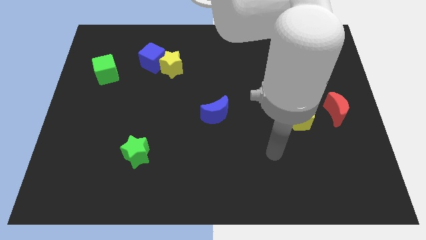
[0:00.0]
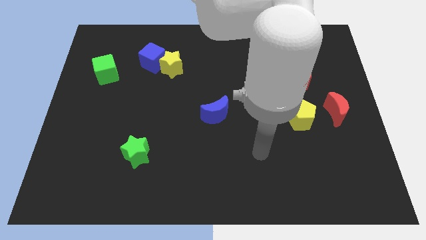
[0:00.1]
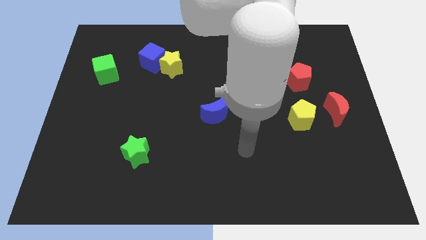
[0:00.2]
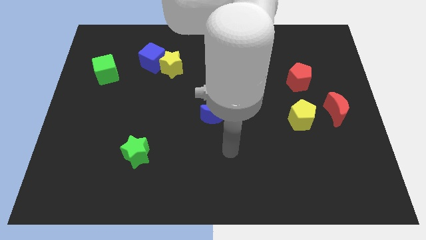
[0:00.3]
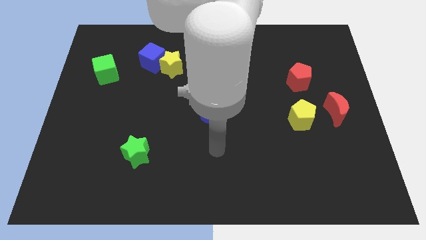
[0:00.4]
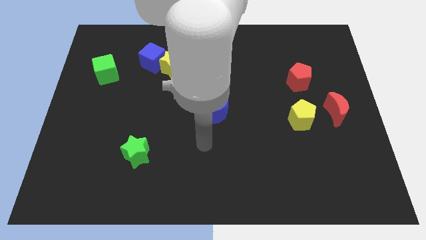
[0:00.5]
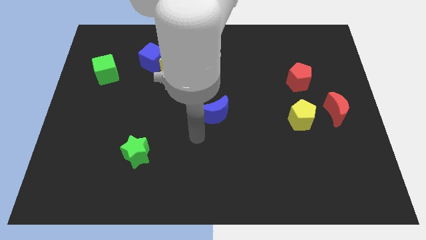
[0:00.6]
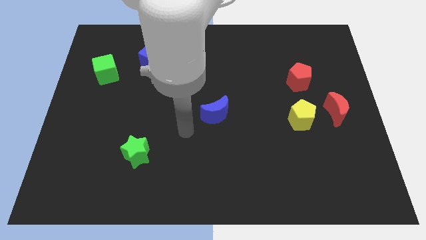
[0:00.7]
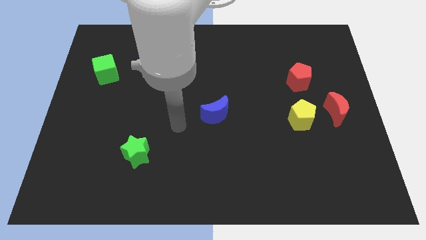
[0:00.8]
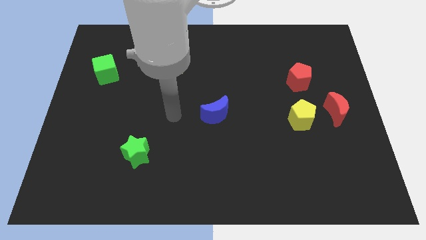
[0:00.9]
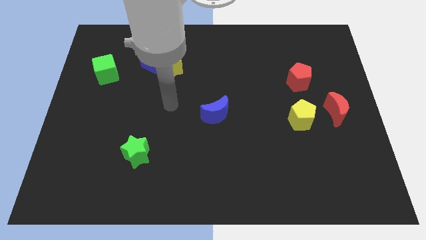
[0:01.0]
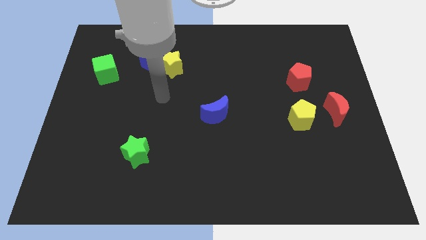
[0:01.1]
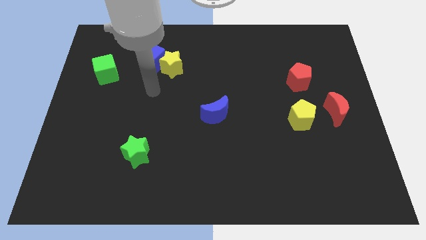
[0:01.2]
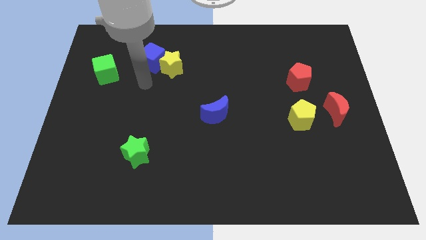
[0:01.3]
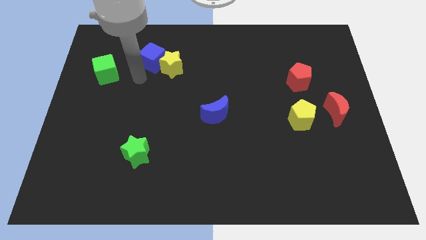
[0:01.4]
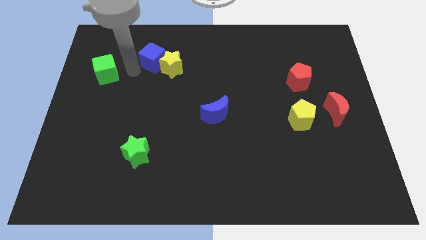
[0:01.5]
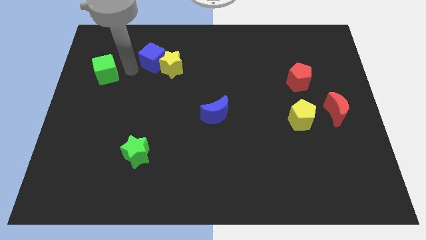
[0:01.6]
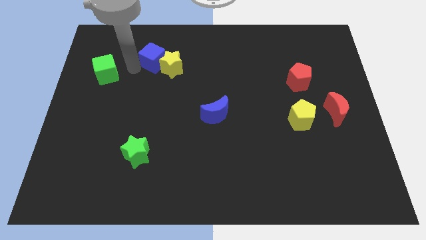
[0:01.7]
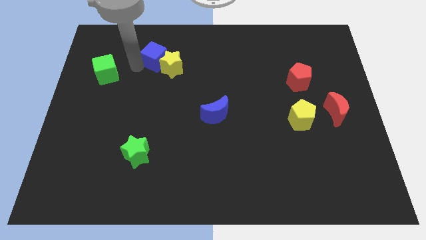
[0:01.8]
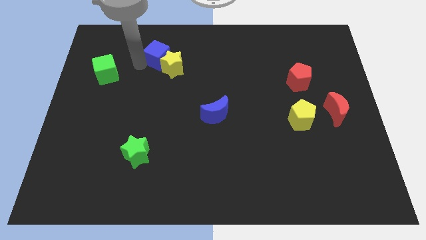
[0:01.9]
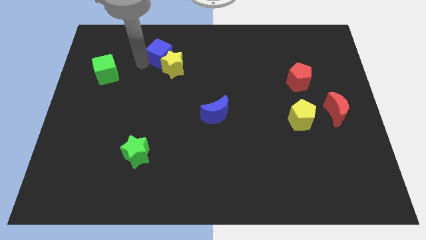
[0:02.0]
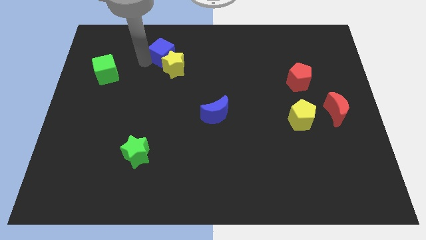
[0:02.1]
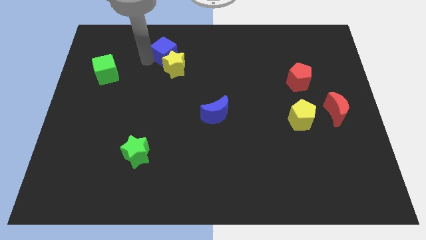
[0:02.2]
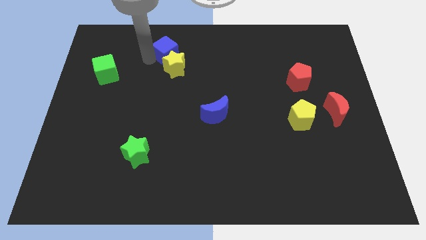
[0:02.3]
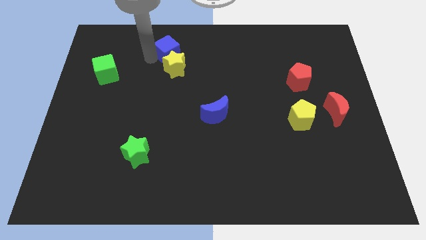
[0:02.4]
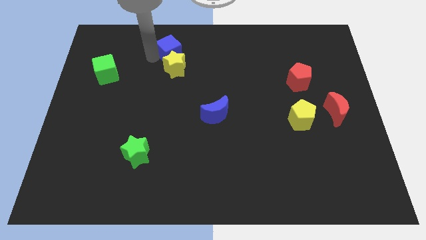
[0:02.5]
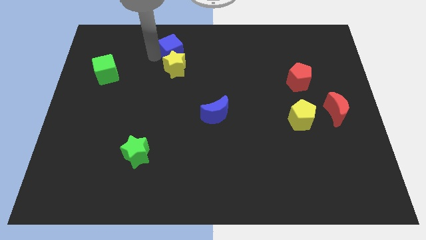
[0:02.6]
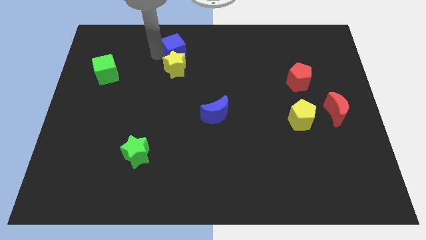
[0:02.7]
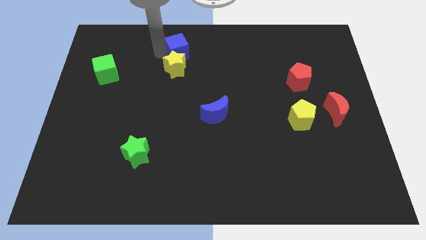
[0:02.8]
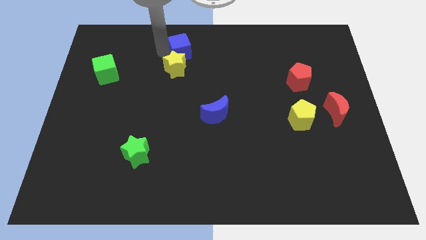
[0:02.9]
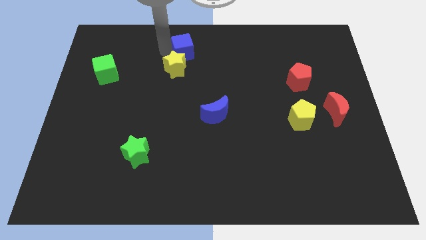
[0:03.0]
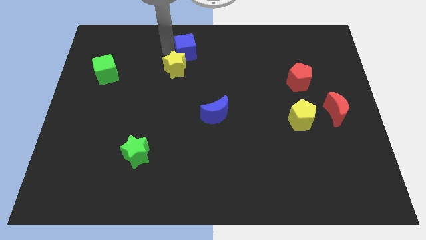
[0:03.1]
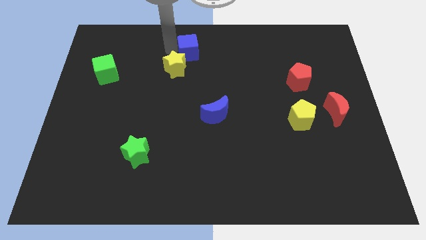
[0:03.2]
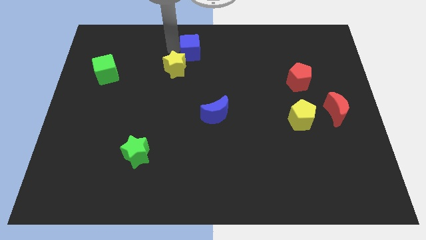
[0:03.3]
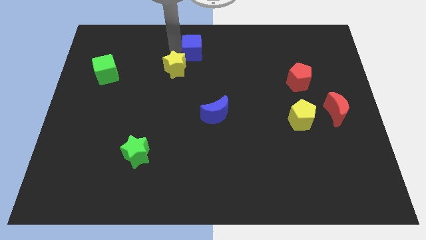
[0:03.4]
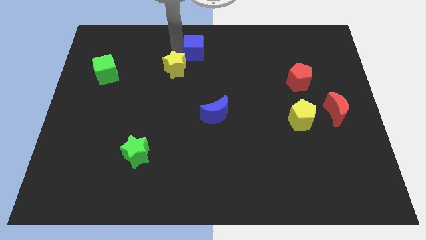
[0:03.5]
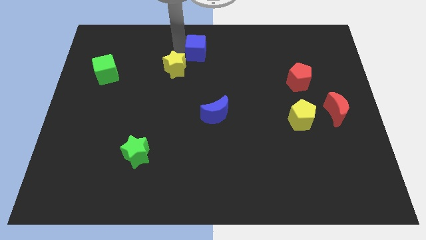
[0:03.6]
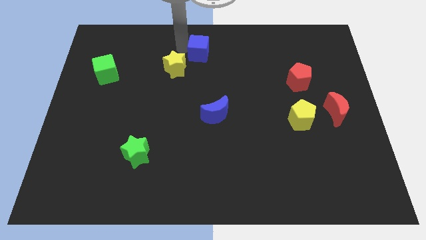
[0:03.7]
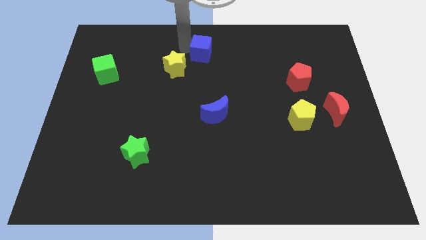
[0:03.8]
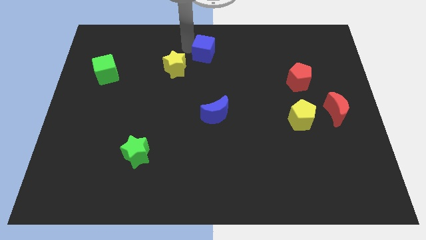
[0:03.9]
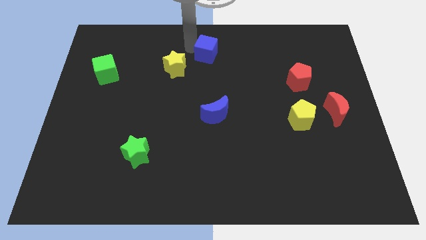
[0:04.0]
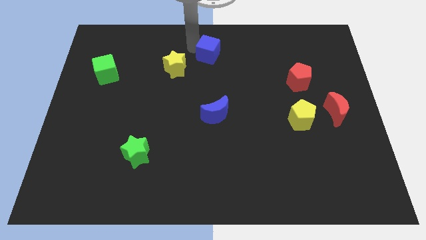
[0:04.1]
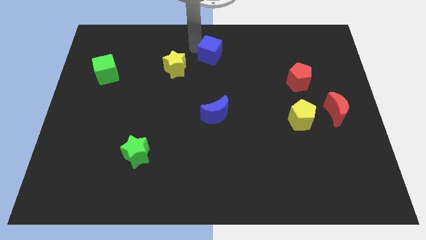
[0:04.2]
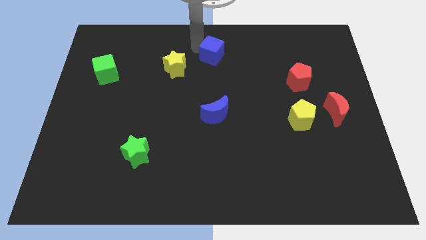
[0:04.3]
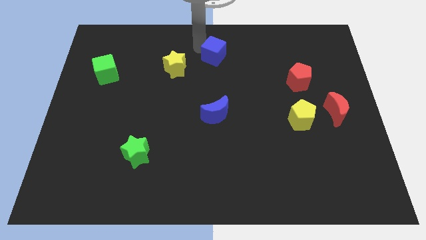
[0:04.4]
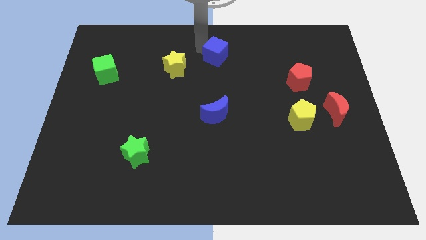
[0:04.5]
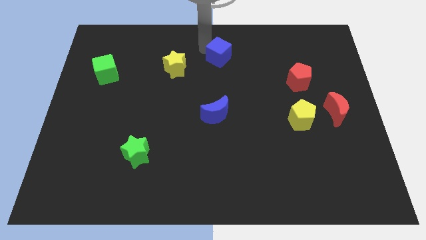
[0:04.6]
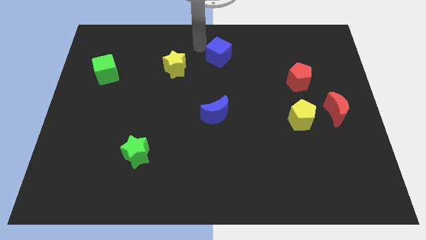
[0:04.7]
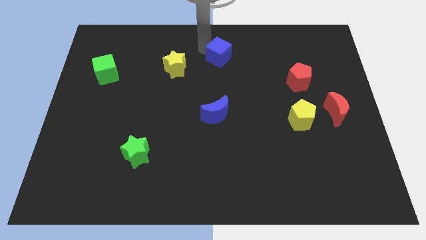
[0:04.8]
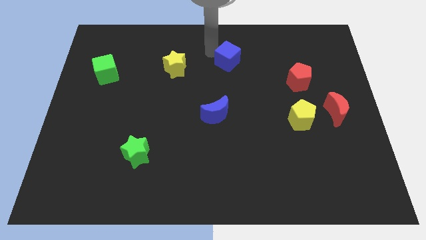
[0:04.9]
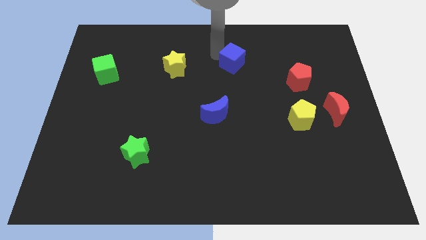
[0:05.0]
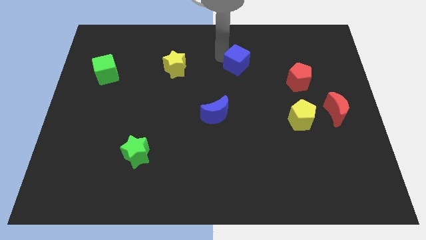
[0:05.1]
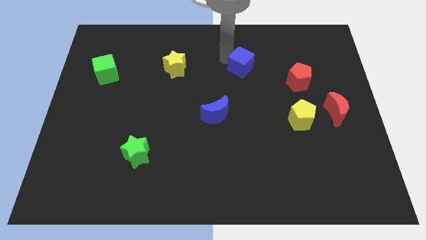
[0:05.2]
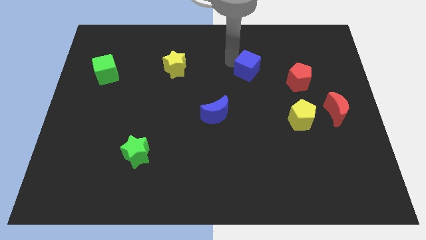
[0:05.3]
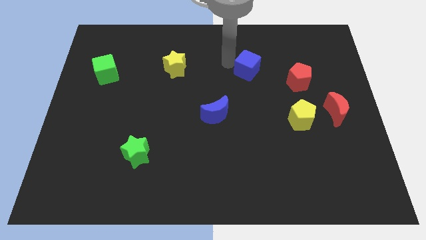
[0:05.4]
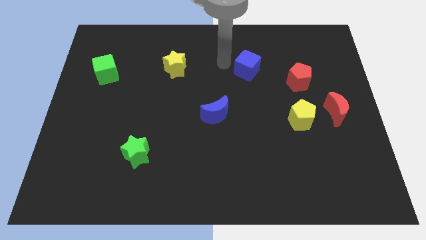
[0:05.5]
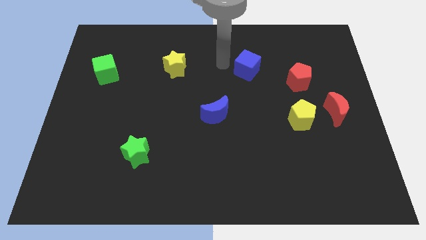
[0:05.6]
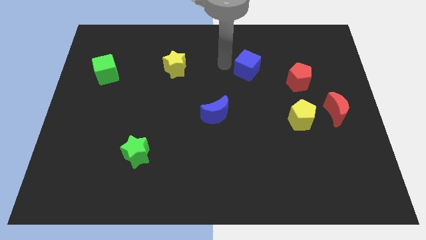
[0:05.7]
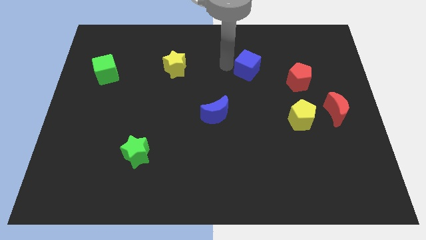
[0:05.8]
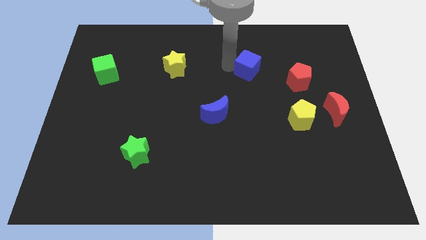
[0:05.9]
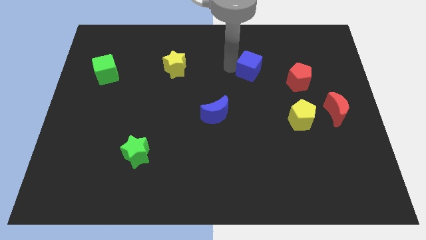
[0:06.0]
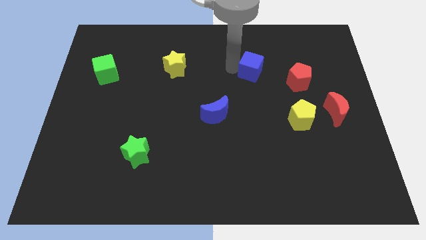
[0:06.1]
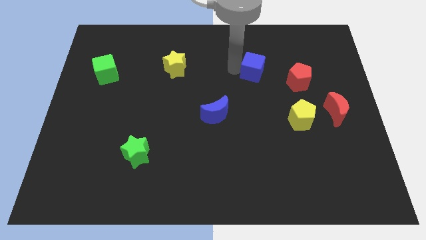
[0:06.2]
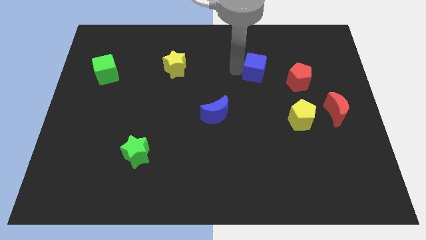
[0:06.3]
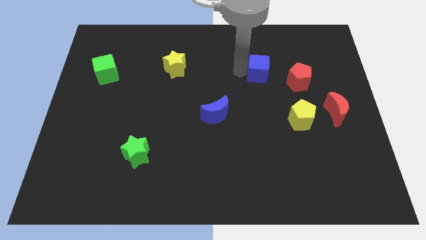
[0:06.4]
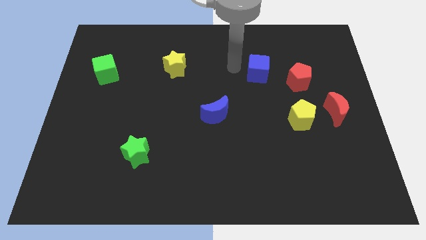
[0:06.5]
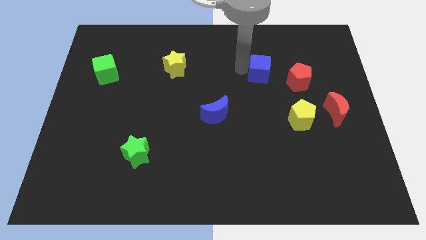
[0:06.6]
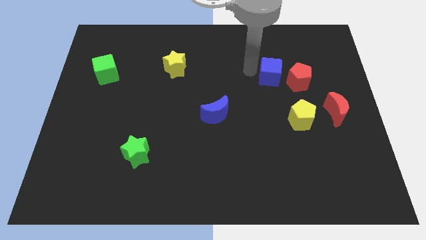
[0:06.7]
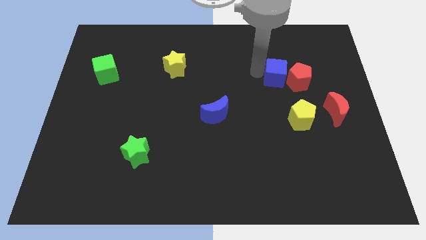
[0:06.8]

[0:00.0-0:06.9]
put the blue cube towards the red pentagon
